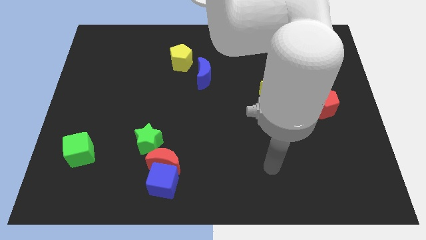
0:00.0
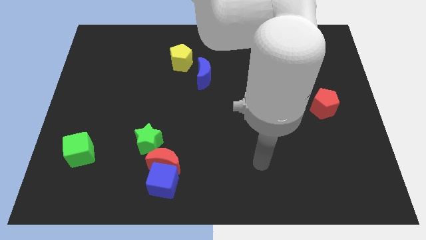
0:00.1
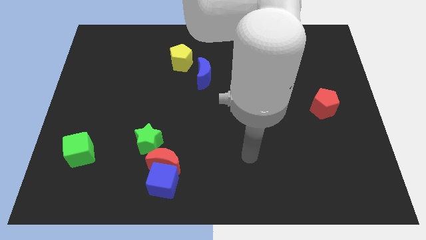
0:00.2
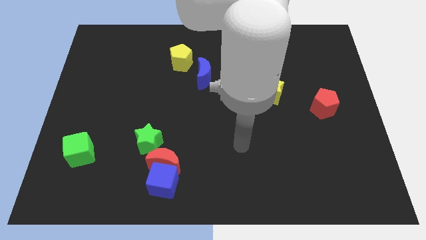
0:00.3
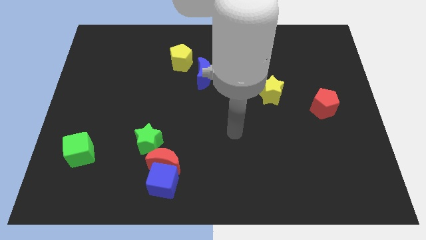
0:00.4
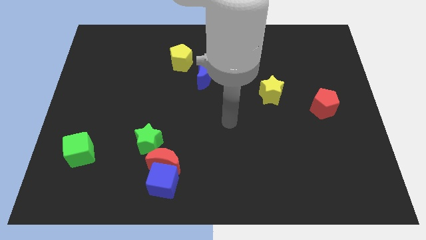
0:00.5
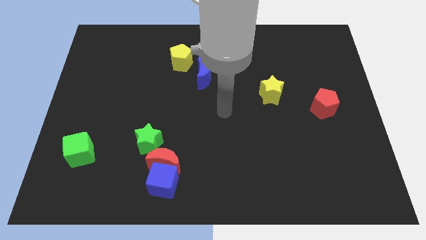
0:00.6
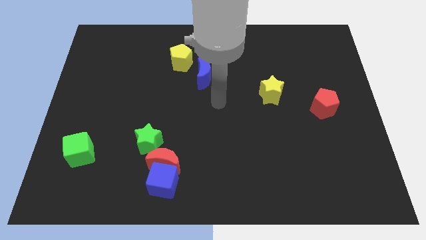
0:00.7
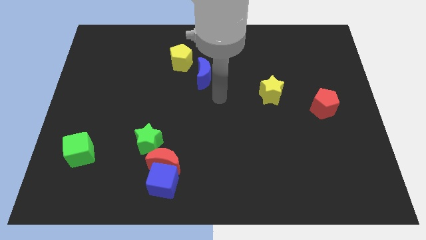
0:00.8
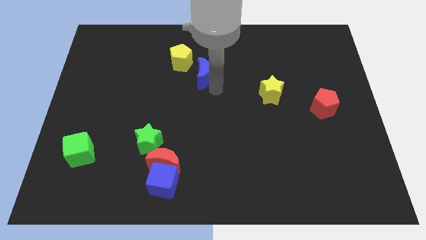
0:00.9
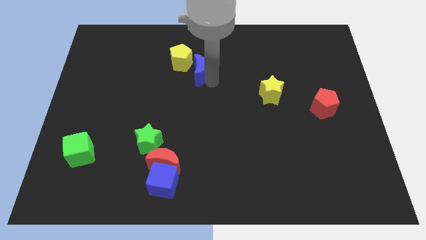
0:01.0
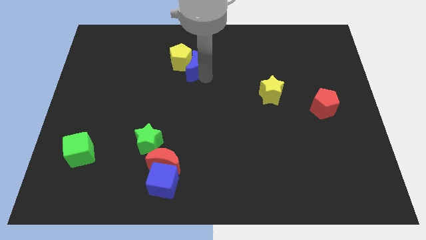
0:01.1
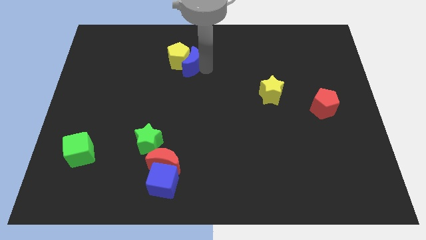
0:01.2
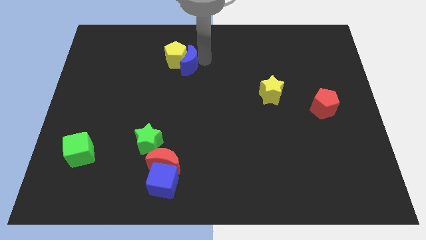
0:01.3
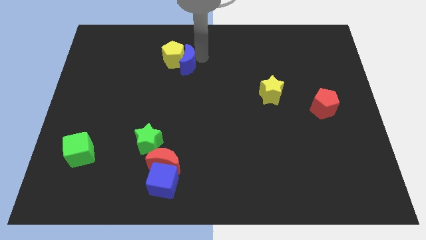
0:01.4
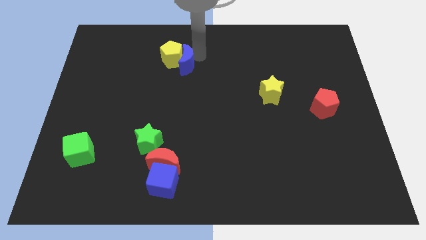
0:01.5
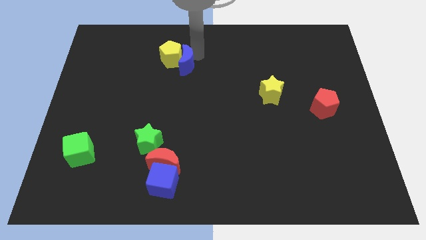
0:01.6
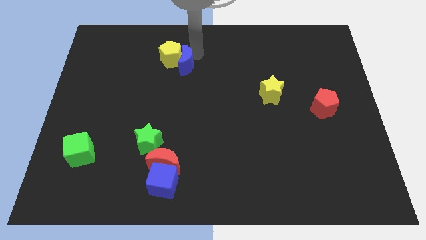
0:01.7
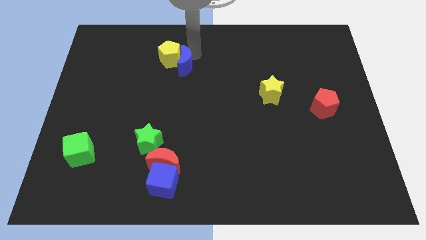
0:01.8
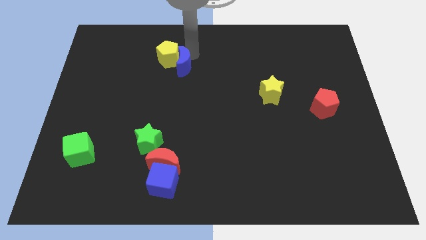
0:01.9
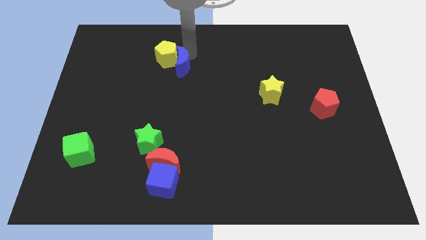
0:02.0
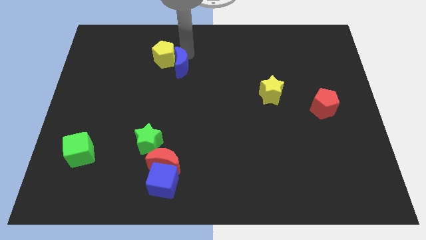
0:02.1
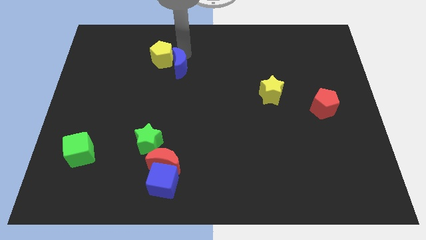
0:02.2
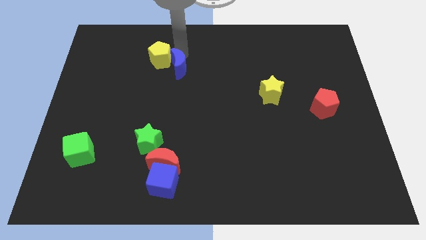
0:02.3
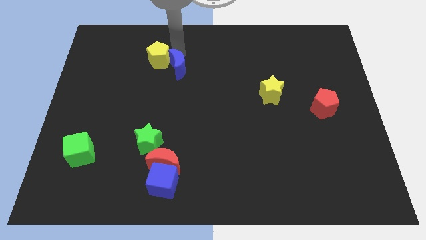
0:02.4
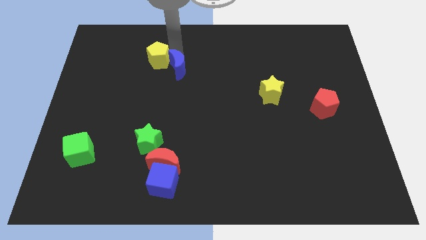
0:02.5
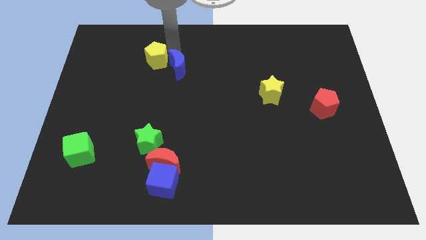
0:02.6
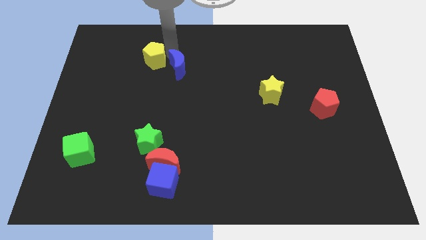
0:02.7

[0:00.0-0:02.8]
slide the yellow pentagon a little bit to the left

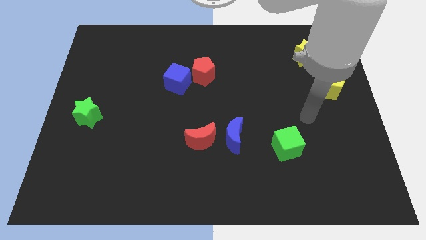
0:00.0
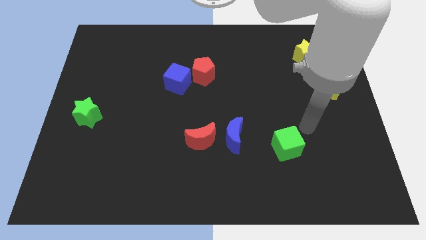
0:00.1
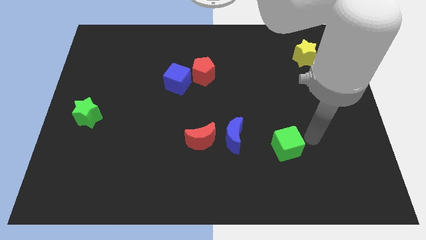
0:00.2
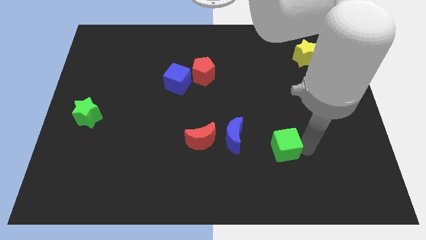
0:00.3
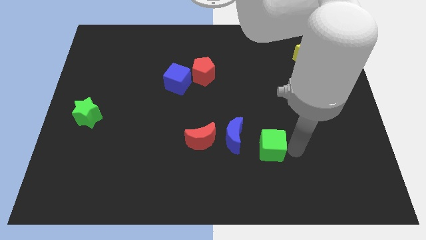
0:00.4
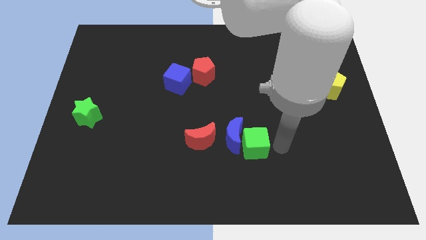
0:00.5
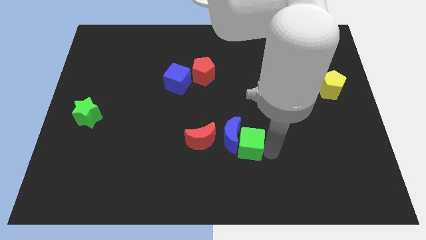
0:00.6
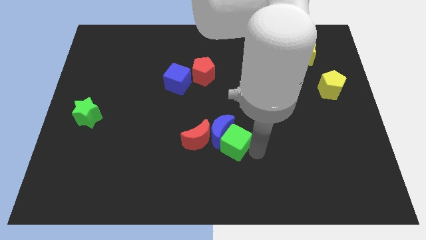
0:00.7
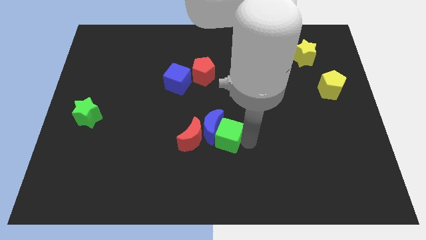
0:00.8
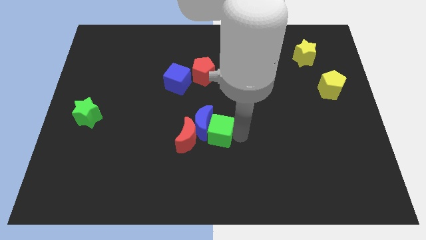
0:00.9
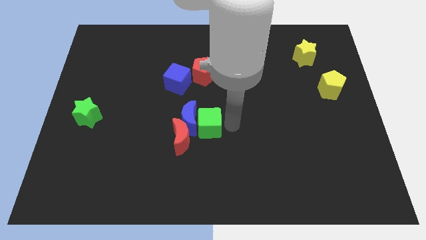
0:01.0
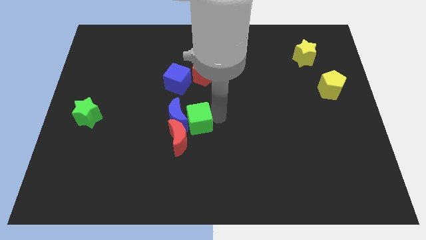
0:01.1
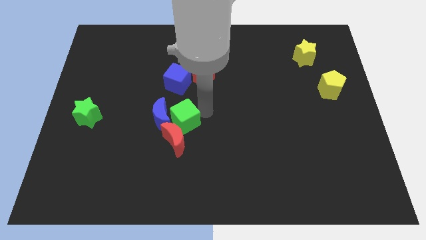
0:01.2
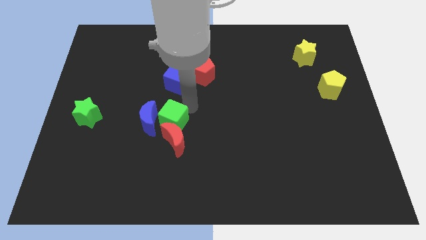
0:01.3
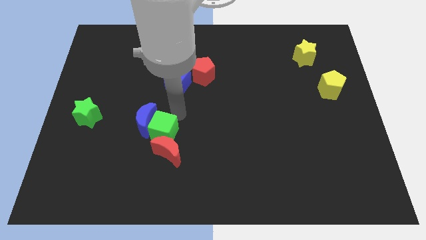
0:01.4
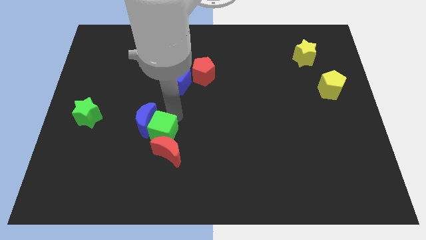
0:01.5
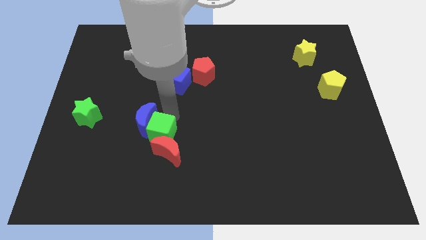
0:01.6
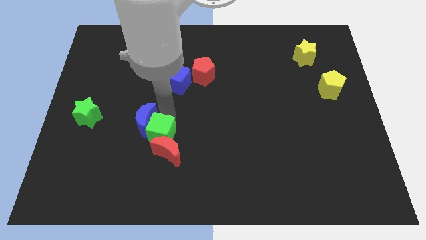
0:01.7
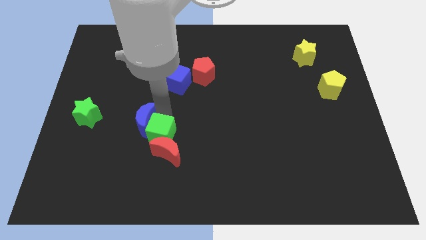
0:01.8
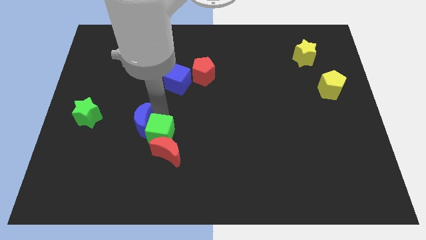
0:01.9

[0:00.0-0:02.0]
push the blue moon to the left

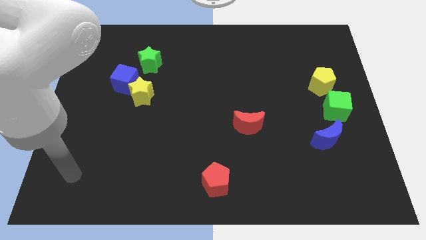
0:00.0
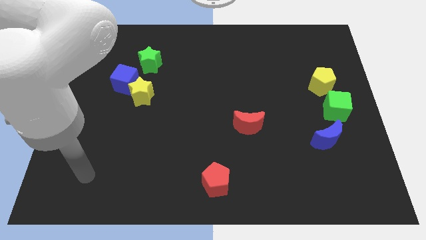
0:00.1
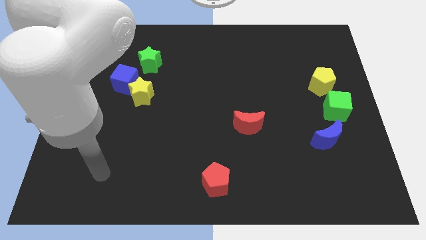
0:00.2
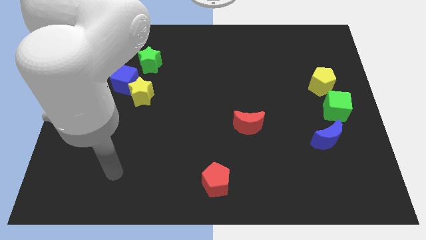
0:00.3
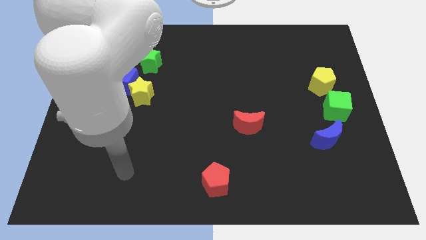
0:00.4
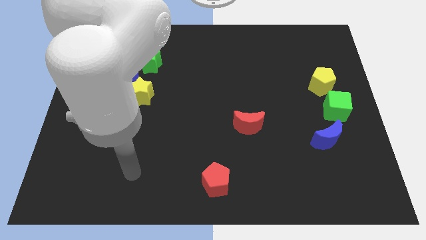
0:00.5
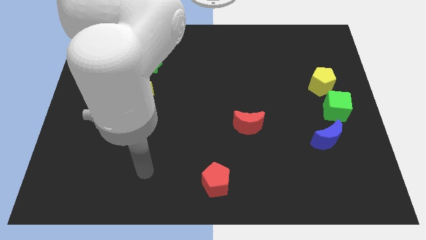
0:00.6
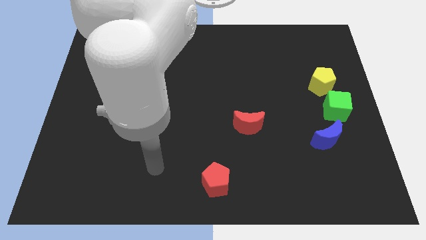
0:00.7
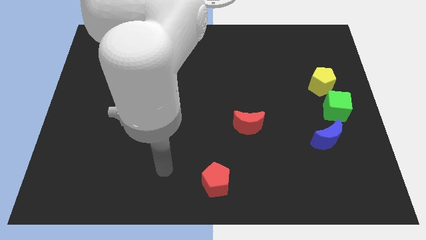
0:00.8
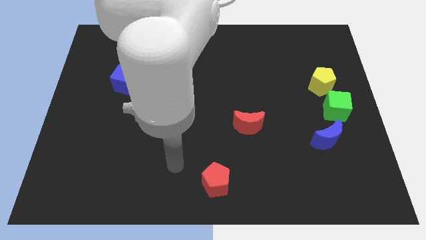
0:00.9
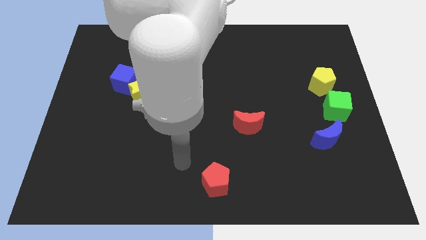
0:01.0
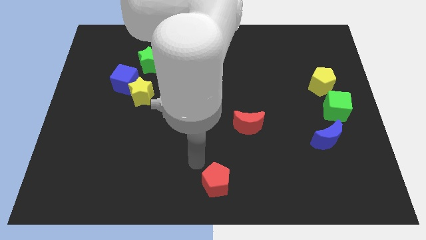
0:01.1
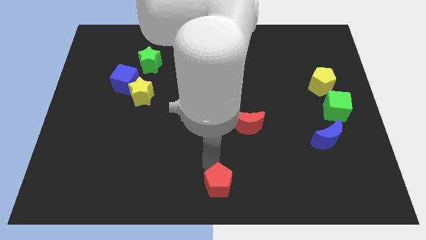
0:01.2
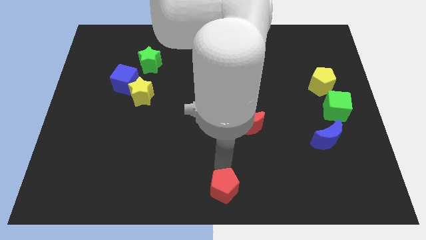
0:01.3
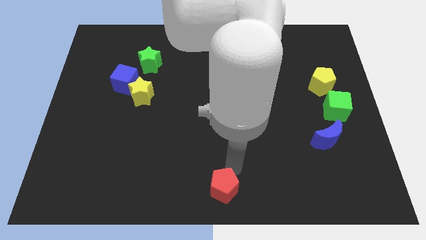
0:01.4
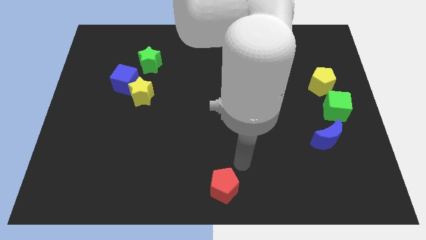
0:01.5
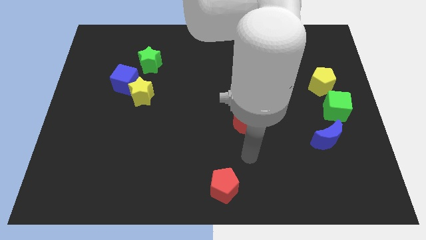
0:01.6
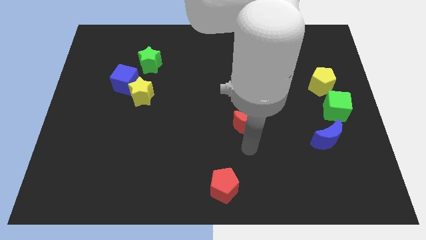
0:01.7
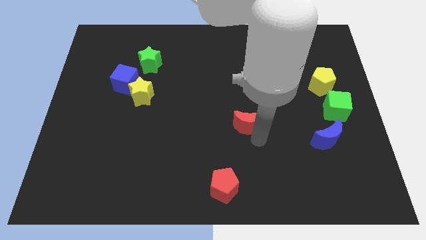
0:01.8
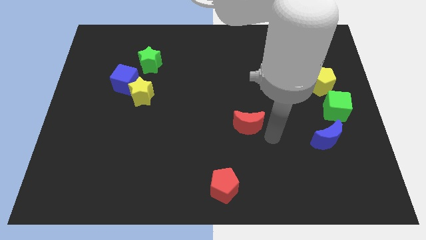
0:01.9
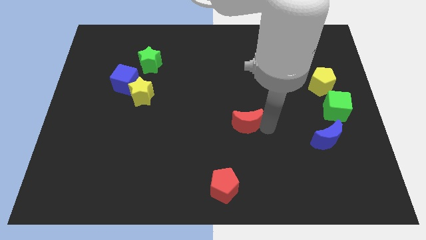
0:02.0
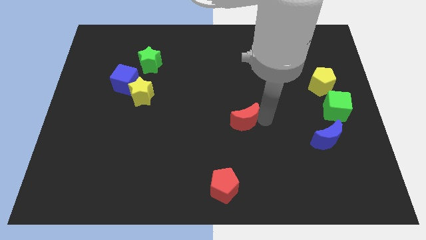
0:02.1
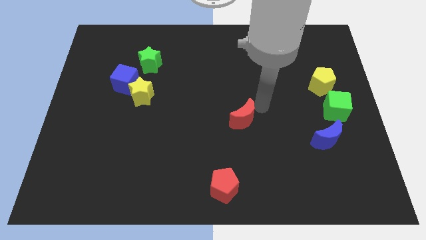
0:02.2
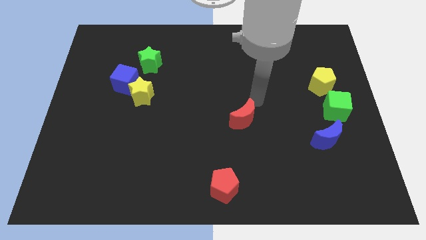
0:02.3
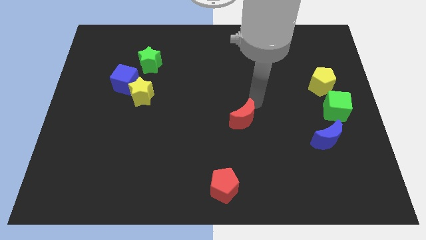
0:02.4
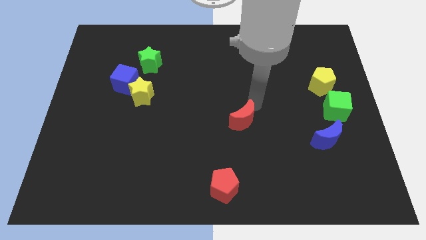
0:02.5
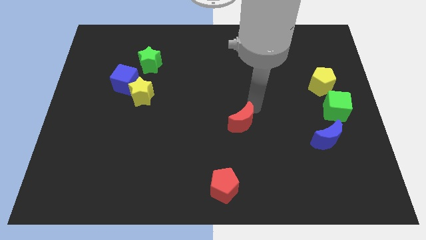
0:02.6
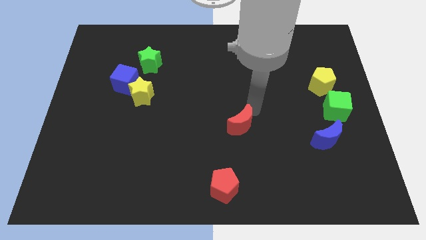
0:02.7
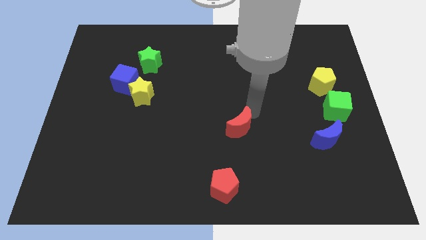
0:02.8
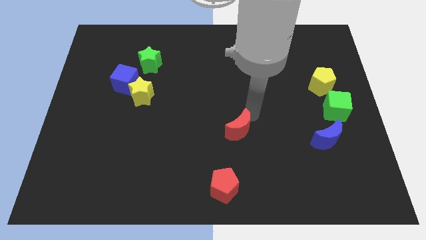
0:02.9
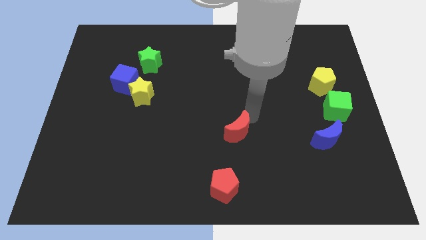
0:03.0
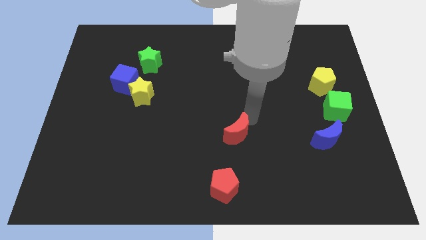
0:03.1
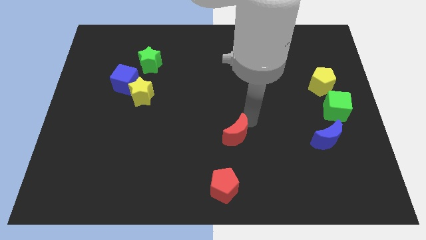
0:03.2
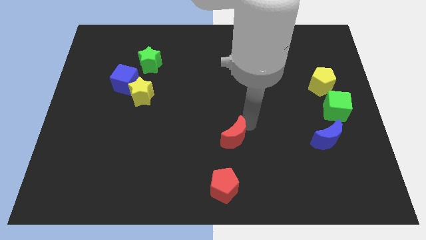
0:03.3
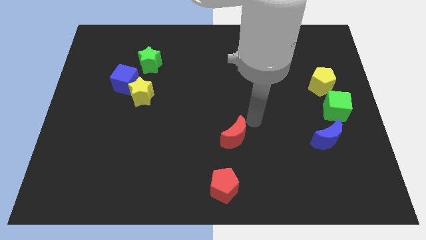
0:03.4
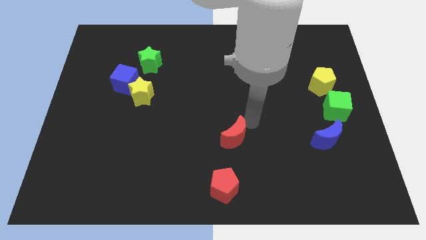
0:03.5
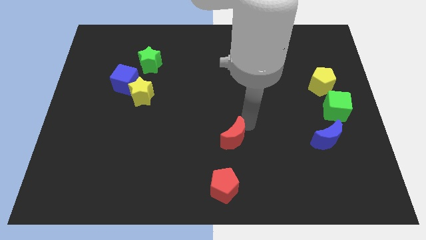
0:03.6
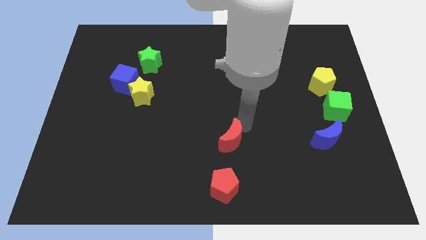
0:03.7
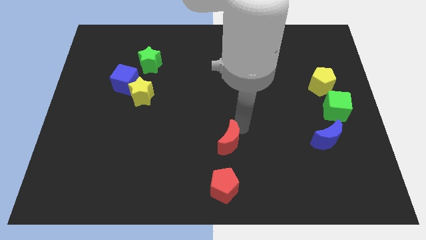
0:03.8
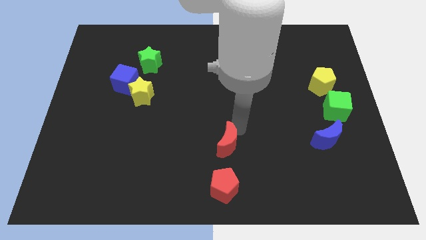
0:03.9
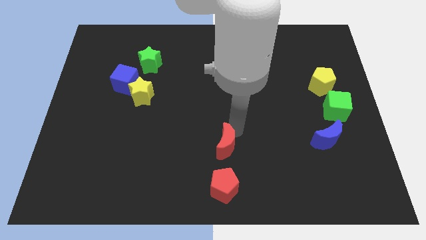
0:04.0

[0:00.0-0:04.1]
slightly push the red moon downwards and to the left diagonally
